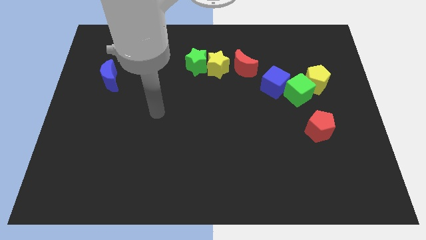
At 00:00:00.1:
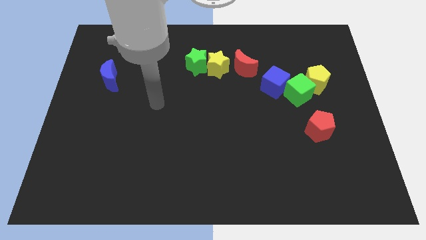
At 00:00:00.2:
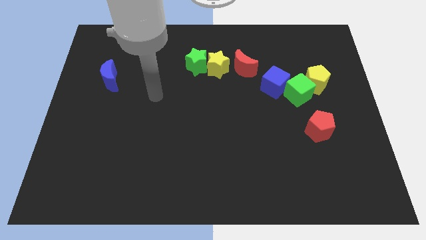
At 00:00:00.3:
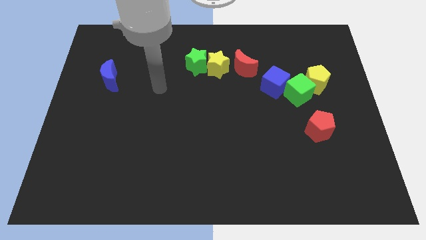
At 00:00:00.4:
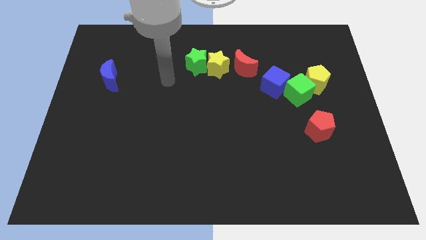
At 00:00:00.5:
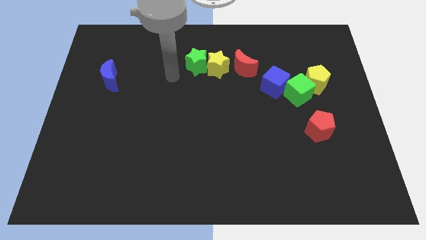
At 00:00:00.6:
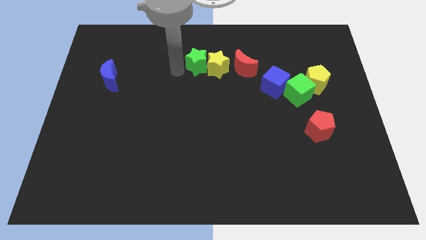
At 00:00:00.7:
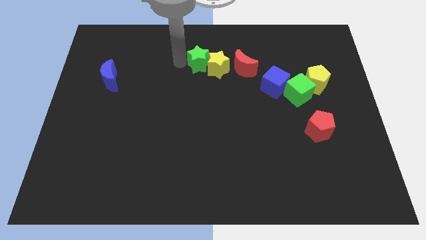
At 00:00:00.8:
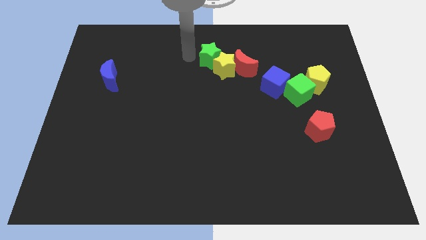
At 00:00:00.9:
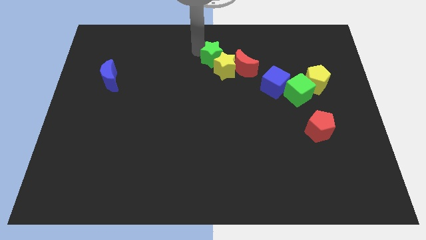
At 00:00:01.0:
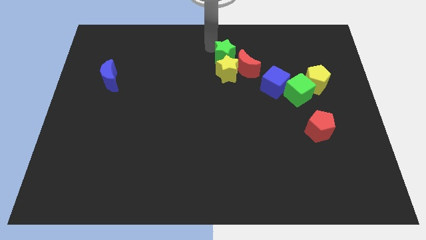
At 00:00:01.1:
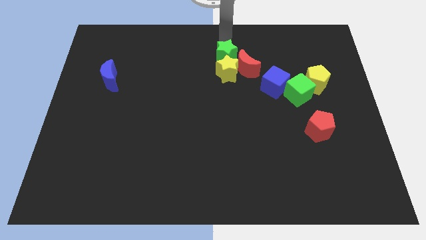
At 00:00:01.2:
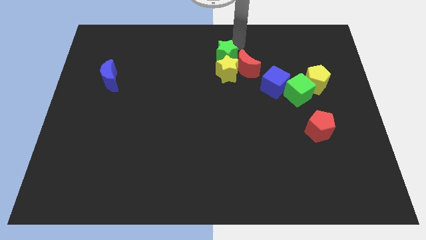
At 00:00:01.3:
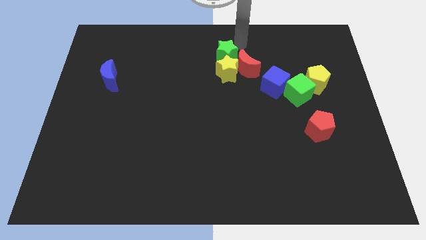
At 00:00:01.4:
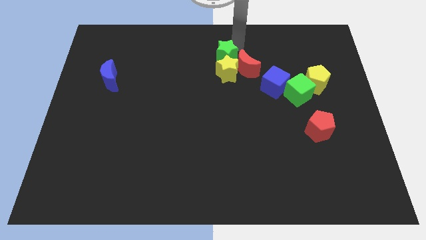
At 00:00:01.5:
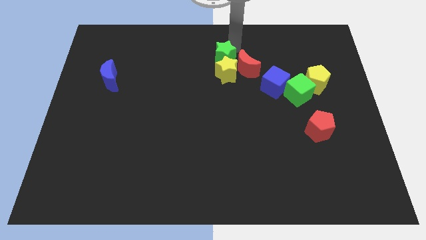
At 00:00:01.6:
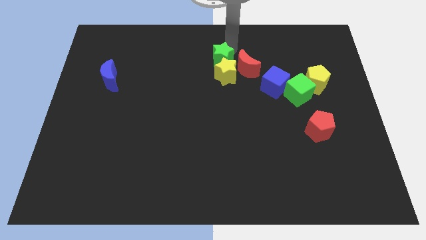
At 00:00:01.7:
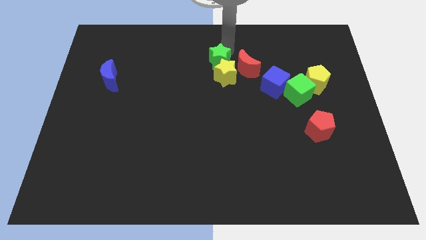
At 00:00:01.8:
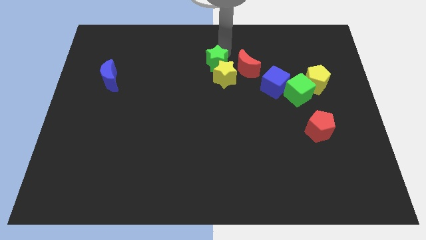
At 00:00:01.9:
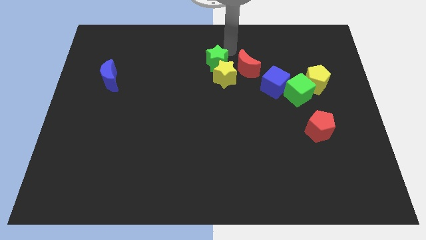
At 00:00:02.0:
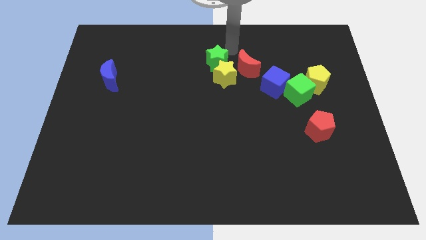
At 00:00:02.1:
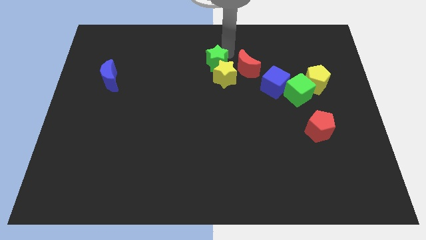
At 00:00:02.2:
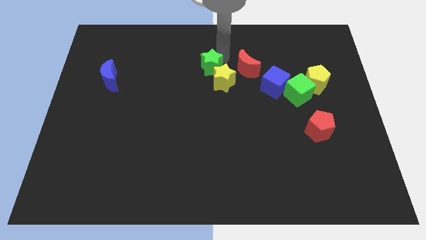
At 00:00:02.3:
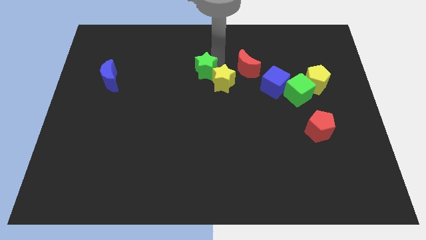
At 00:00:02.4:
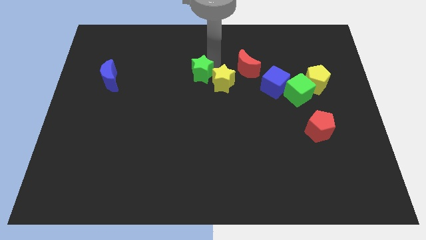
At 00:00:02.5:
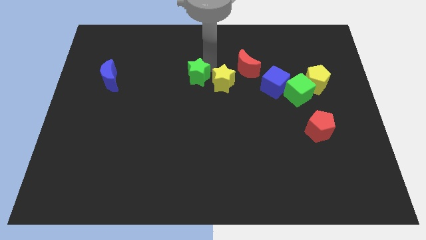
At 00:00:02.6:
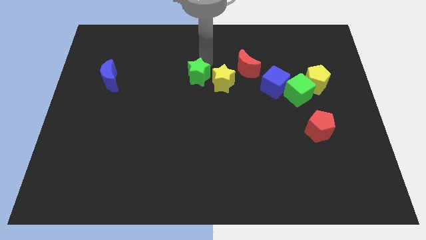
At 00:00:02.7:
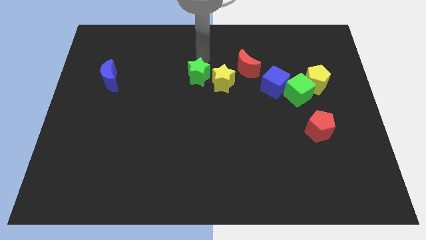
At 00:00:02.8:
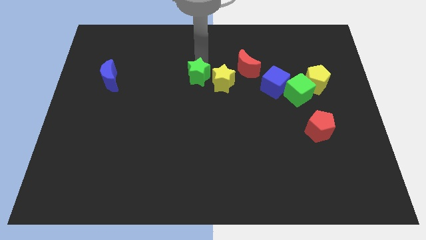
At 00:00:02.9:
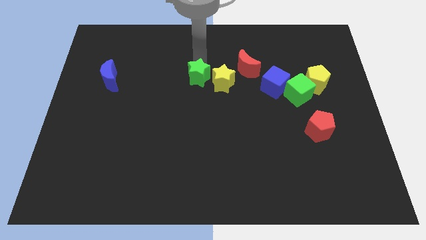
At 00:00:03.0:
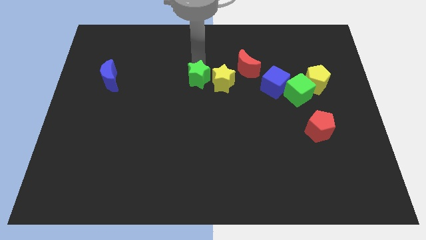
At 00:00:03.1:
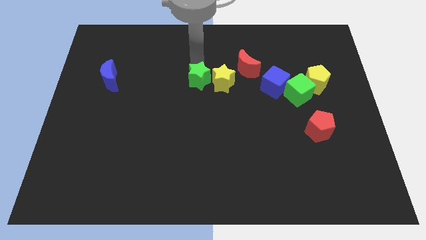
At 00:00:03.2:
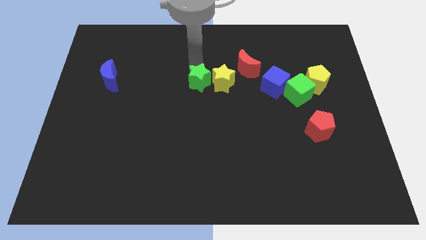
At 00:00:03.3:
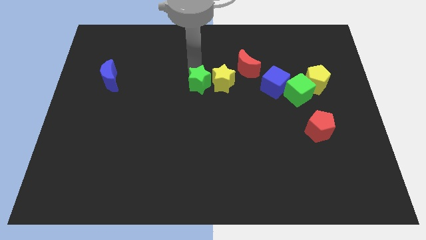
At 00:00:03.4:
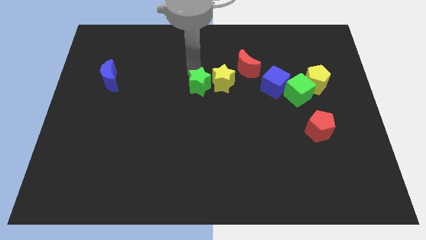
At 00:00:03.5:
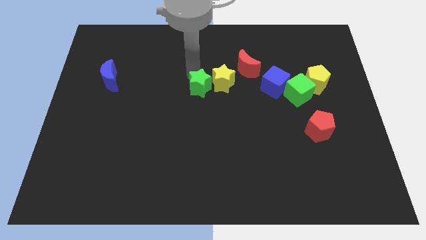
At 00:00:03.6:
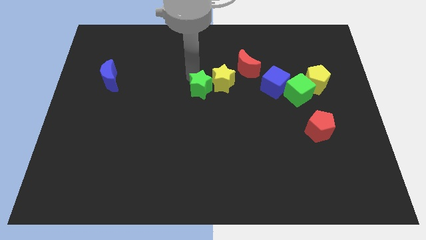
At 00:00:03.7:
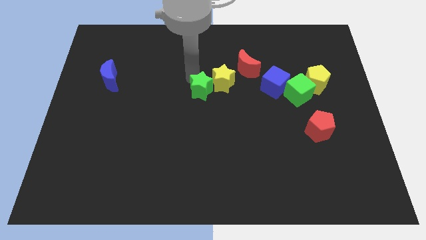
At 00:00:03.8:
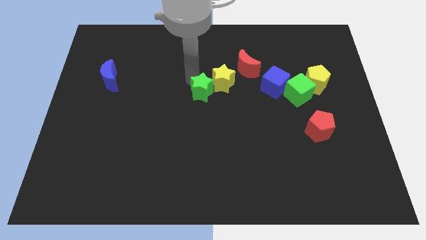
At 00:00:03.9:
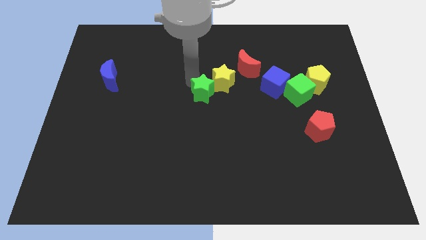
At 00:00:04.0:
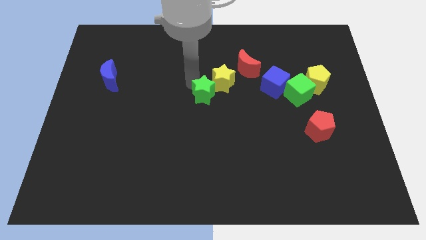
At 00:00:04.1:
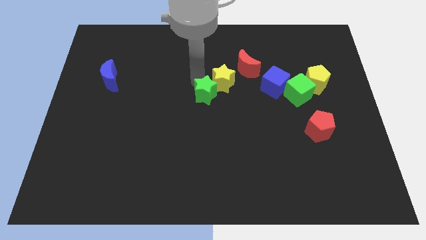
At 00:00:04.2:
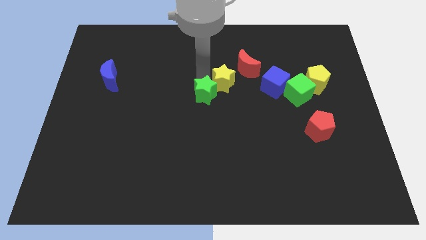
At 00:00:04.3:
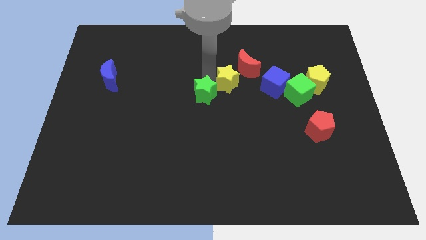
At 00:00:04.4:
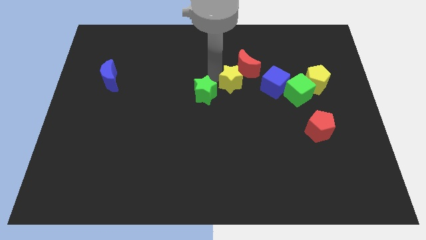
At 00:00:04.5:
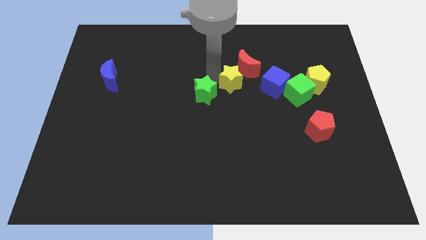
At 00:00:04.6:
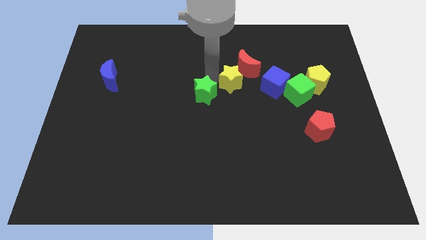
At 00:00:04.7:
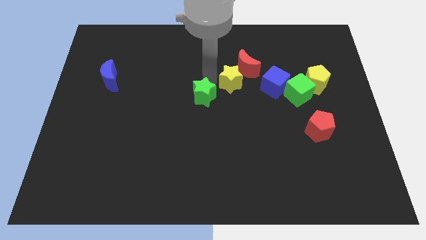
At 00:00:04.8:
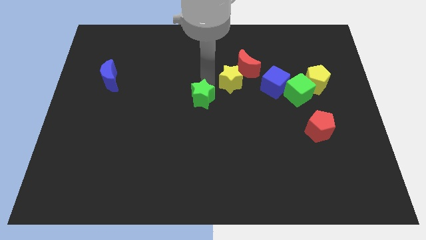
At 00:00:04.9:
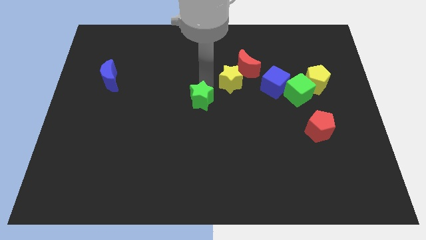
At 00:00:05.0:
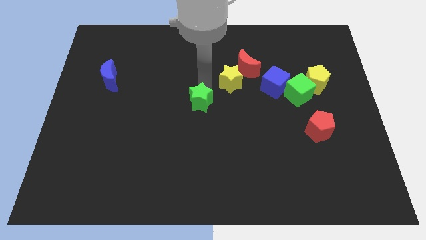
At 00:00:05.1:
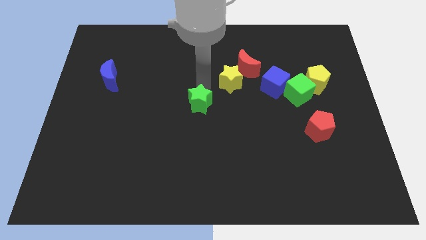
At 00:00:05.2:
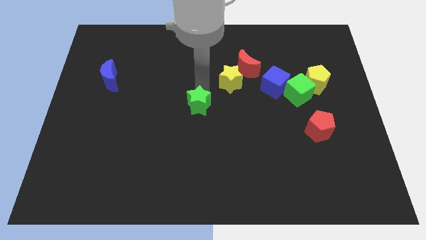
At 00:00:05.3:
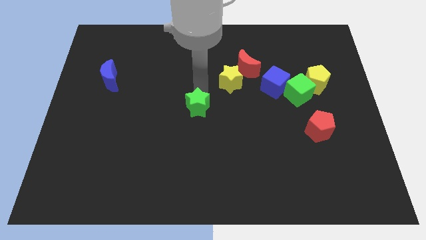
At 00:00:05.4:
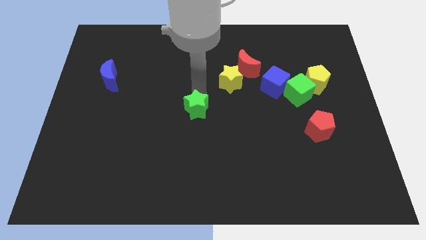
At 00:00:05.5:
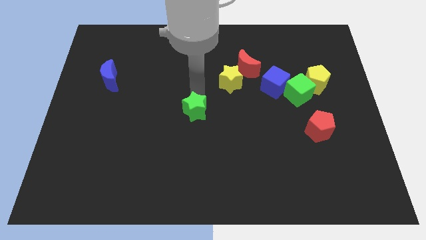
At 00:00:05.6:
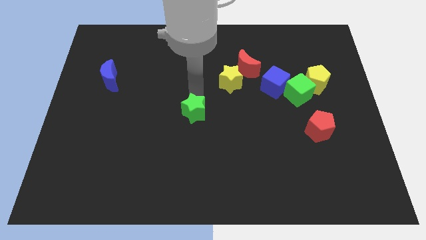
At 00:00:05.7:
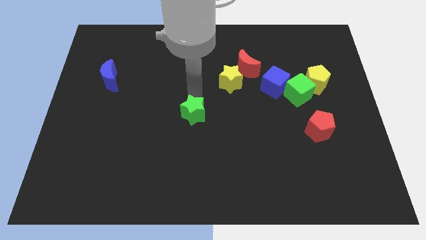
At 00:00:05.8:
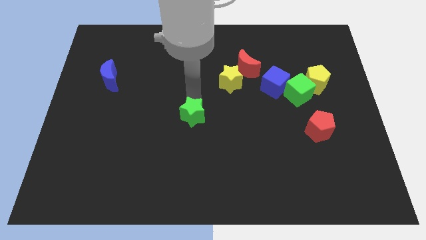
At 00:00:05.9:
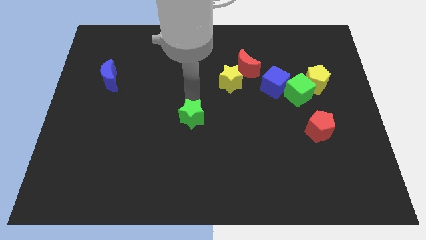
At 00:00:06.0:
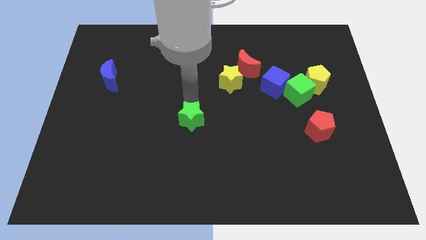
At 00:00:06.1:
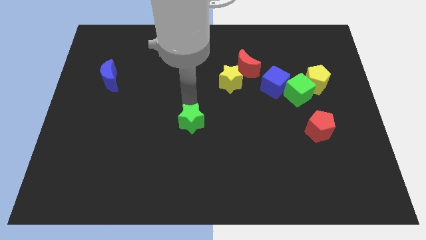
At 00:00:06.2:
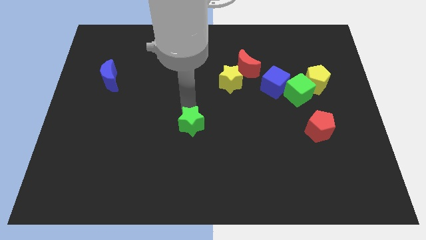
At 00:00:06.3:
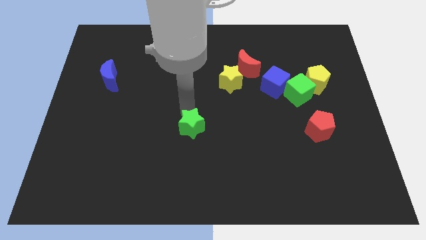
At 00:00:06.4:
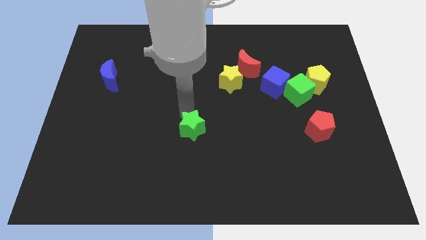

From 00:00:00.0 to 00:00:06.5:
slide the green star downwards

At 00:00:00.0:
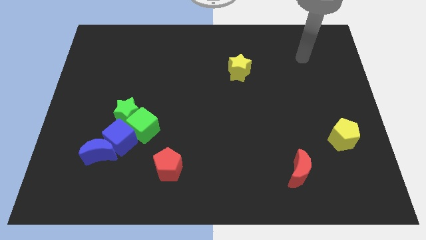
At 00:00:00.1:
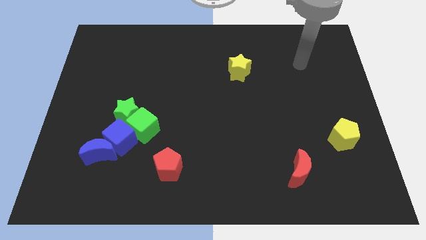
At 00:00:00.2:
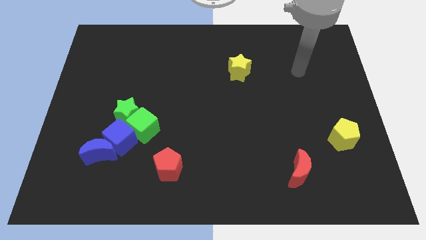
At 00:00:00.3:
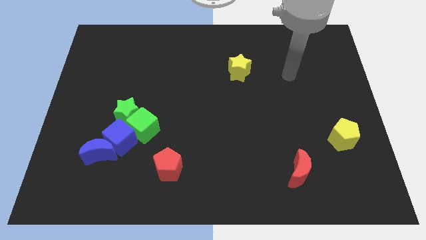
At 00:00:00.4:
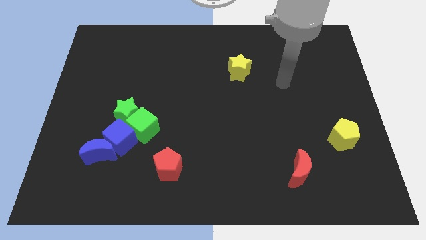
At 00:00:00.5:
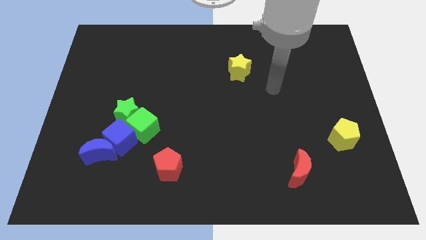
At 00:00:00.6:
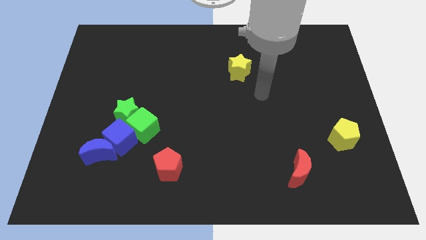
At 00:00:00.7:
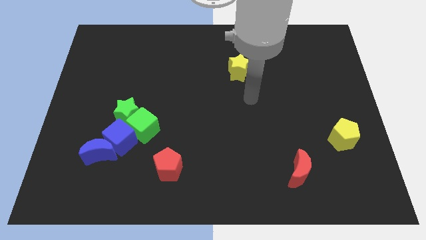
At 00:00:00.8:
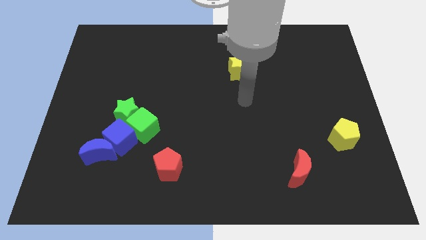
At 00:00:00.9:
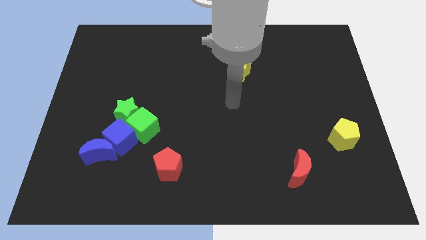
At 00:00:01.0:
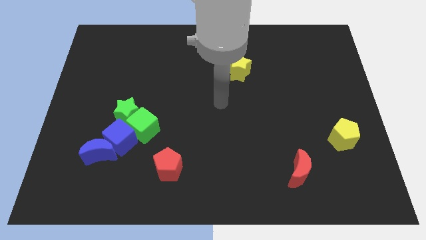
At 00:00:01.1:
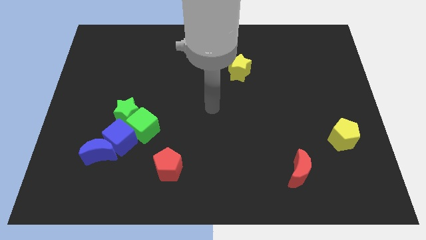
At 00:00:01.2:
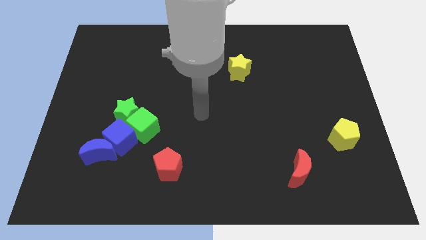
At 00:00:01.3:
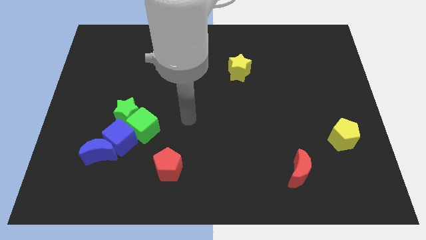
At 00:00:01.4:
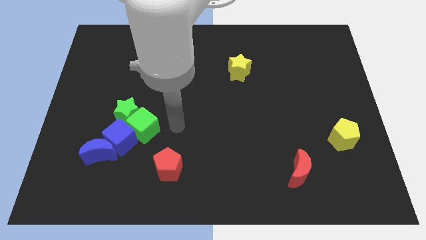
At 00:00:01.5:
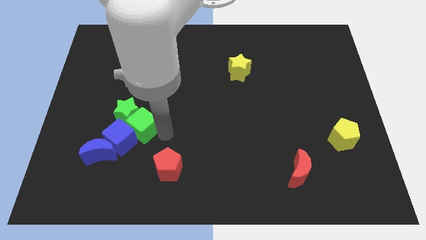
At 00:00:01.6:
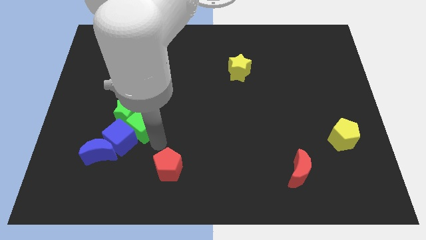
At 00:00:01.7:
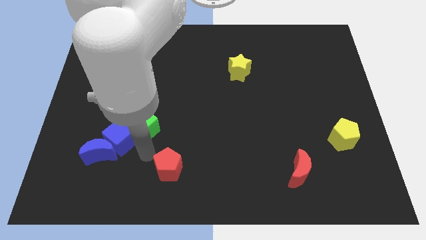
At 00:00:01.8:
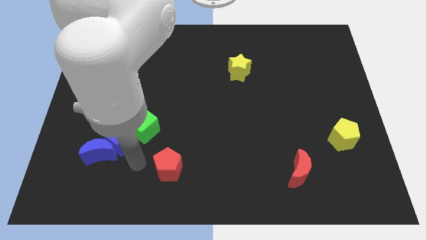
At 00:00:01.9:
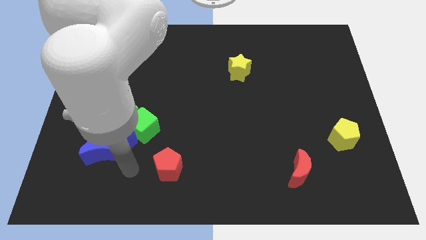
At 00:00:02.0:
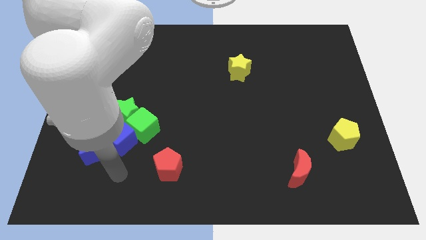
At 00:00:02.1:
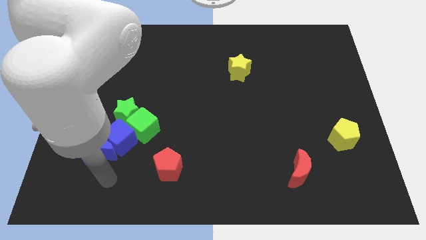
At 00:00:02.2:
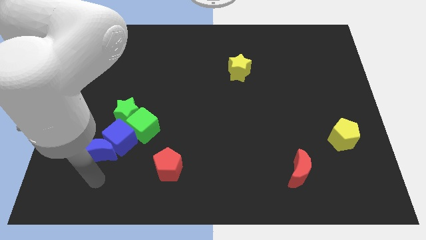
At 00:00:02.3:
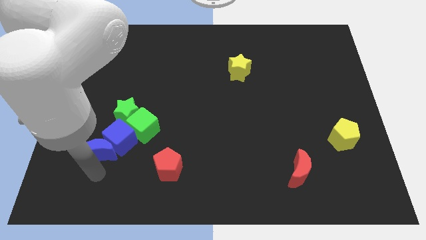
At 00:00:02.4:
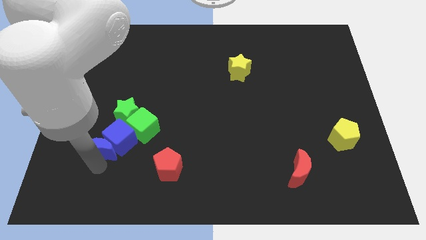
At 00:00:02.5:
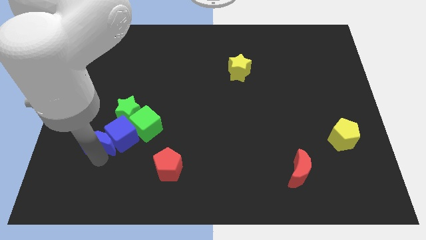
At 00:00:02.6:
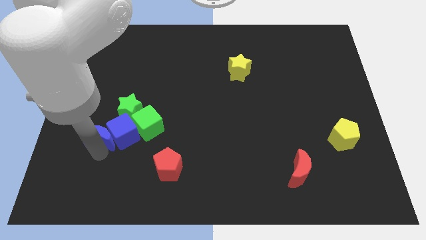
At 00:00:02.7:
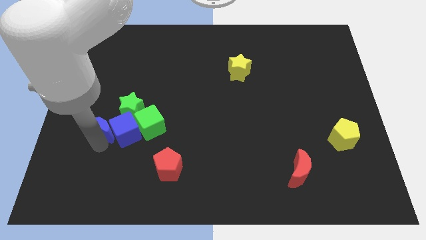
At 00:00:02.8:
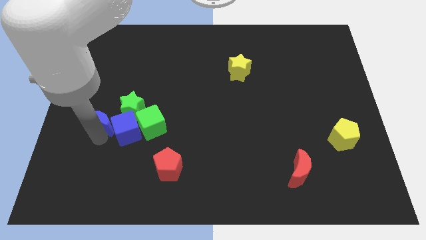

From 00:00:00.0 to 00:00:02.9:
push the blue moon upwards slightly
